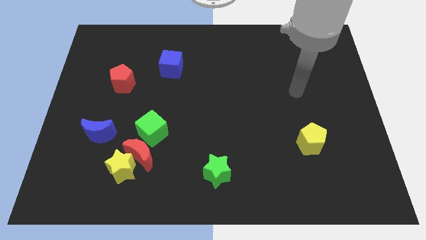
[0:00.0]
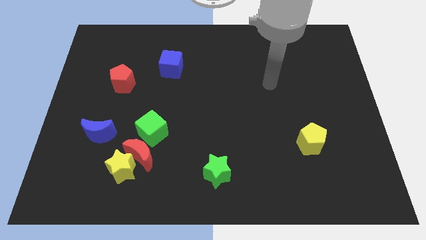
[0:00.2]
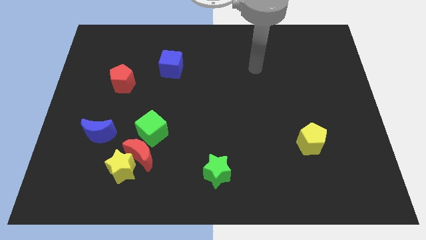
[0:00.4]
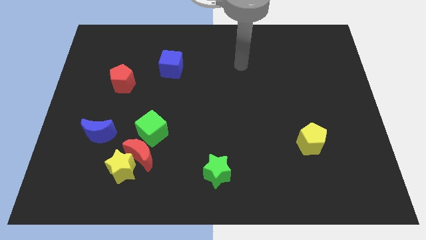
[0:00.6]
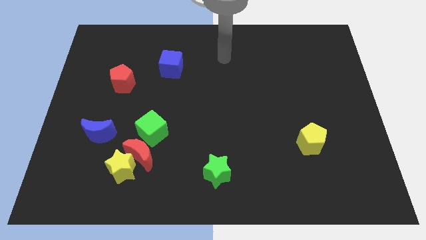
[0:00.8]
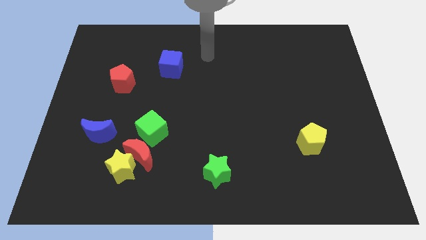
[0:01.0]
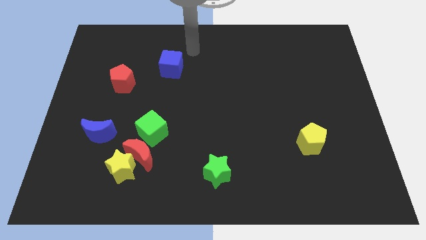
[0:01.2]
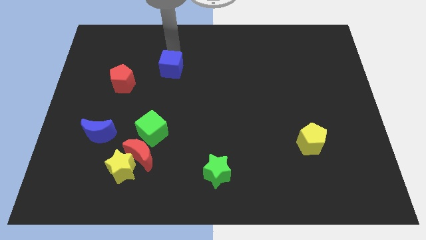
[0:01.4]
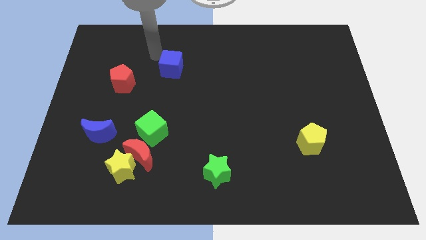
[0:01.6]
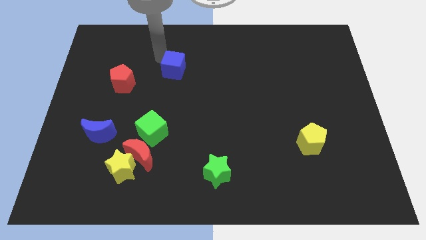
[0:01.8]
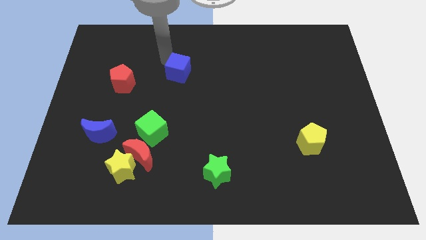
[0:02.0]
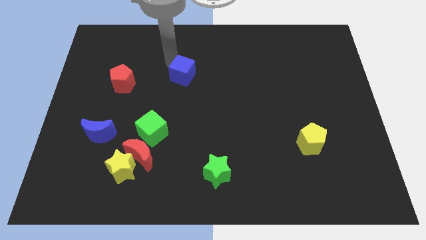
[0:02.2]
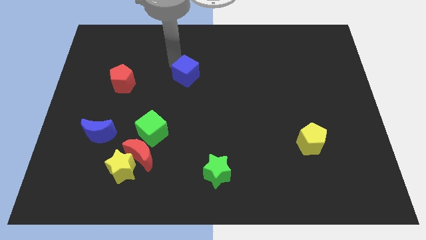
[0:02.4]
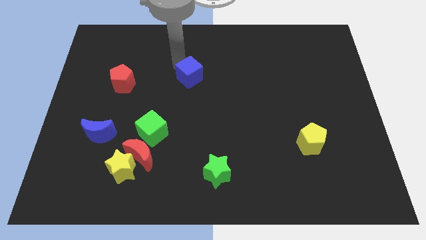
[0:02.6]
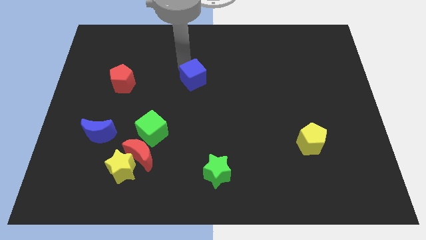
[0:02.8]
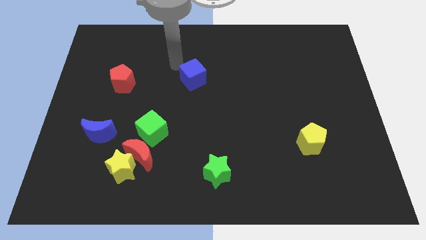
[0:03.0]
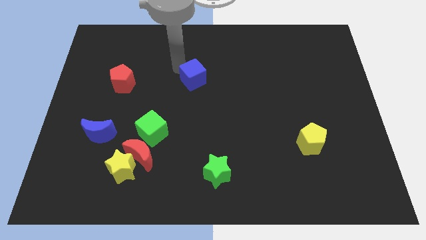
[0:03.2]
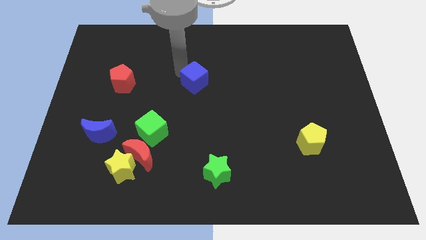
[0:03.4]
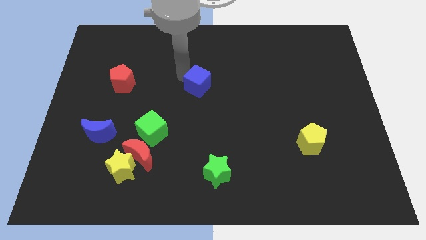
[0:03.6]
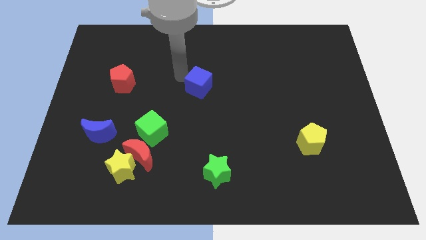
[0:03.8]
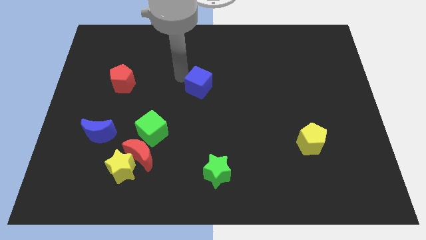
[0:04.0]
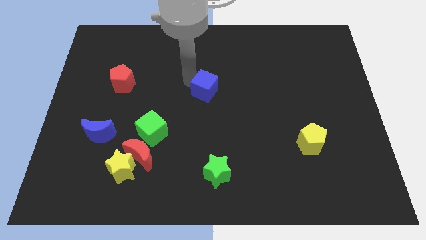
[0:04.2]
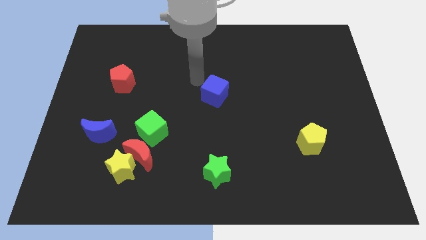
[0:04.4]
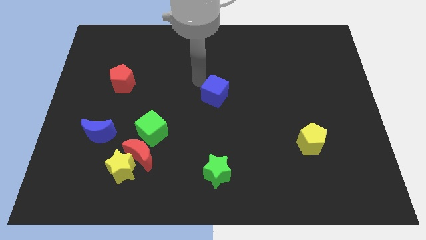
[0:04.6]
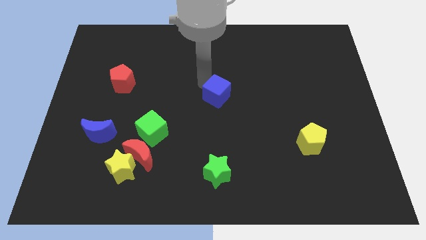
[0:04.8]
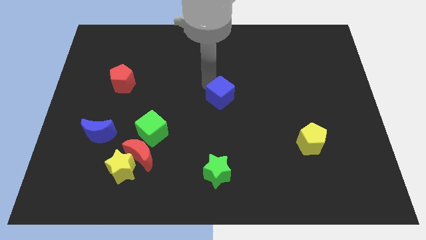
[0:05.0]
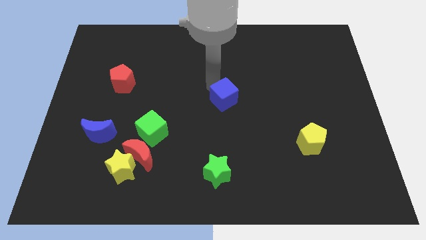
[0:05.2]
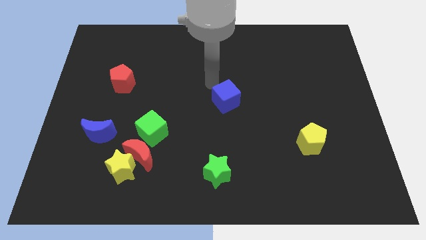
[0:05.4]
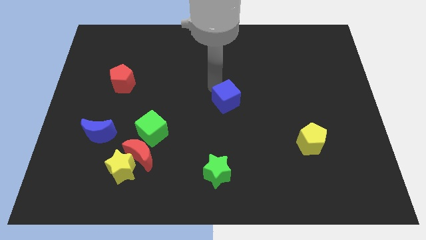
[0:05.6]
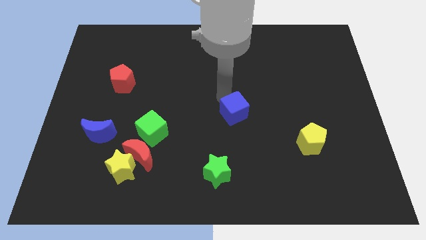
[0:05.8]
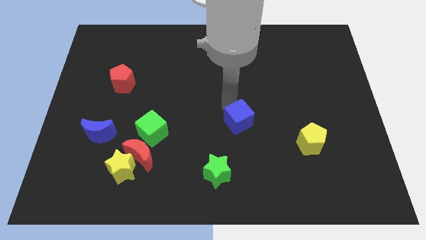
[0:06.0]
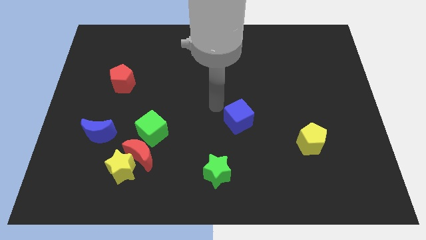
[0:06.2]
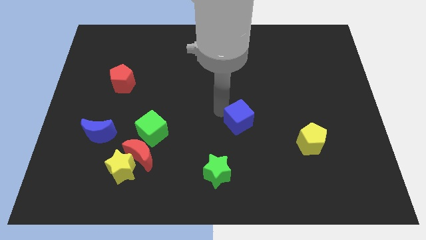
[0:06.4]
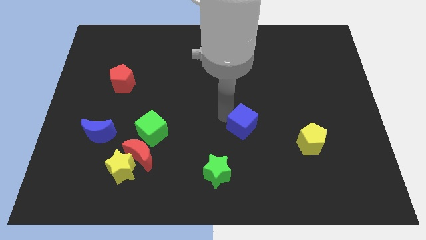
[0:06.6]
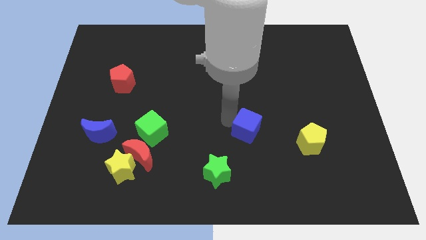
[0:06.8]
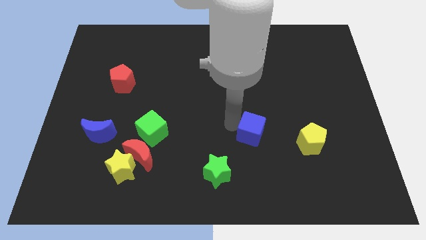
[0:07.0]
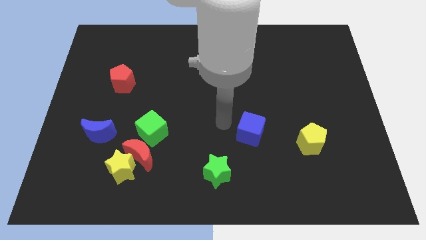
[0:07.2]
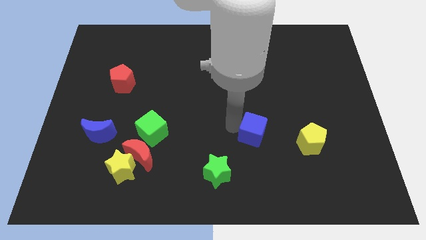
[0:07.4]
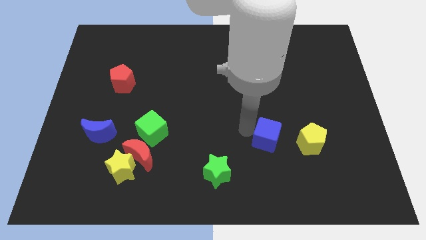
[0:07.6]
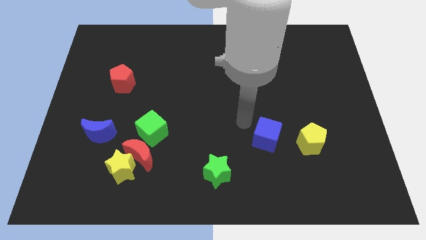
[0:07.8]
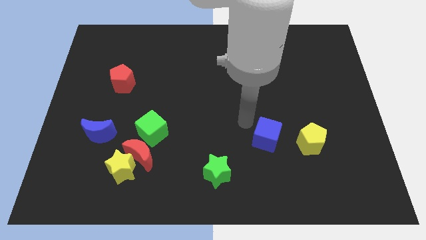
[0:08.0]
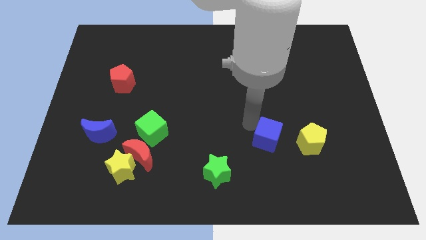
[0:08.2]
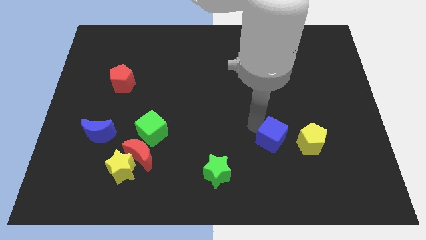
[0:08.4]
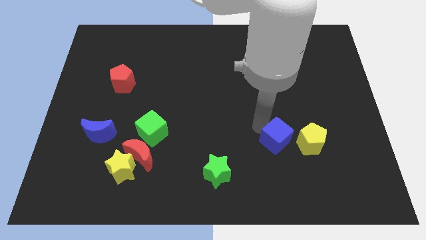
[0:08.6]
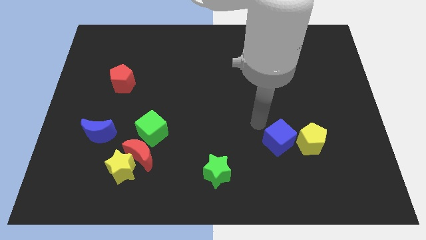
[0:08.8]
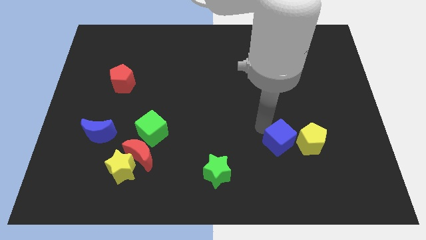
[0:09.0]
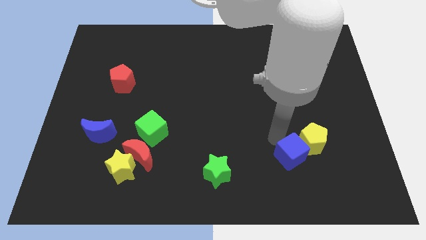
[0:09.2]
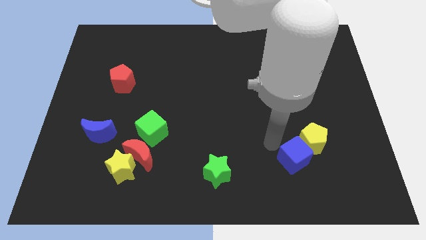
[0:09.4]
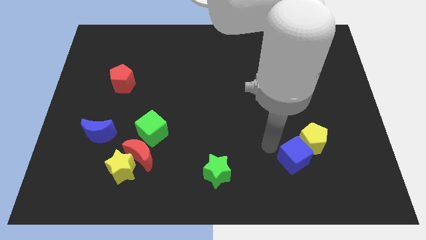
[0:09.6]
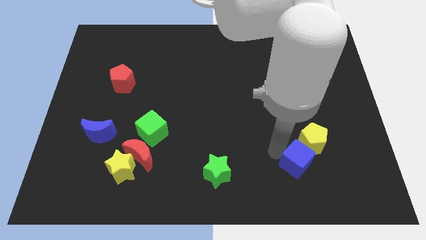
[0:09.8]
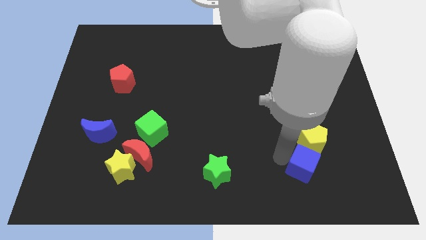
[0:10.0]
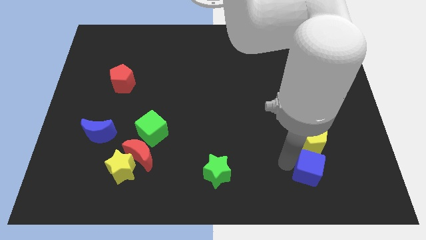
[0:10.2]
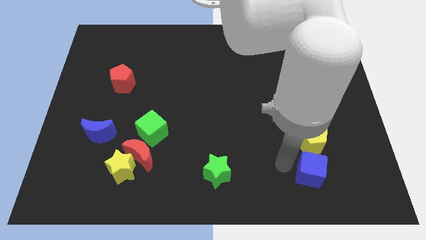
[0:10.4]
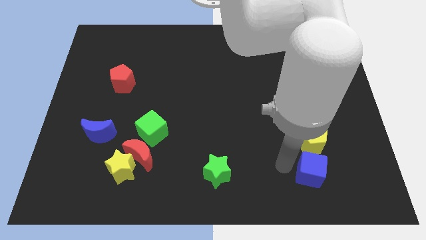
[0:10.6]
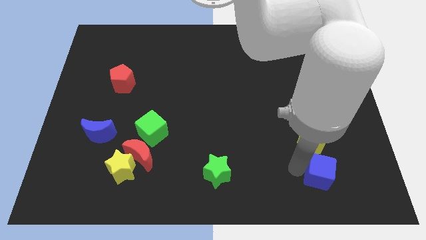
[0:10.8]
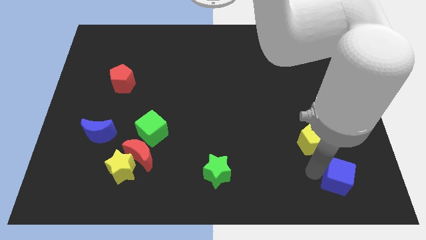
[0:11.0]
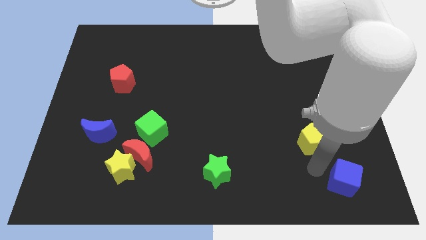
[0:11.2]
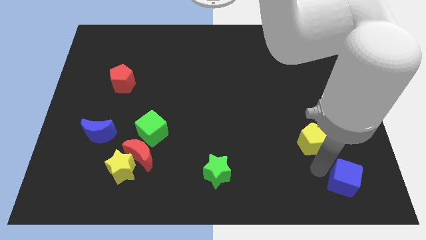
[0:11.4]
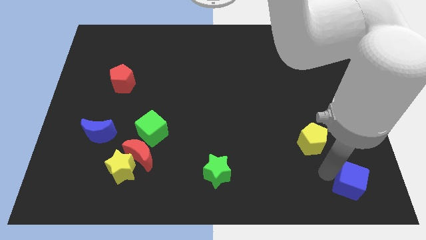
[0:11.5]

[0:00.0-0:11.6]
put the blue cube to the bottom right of the board

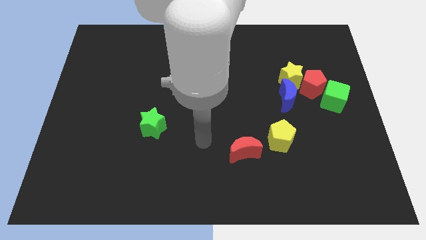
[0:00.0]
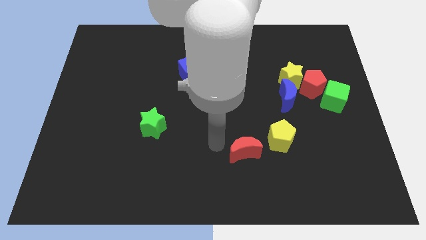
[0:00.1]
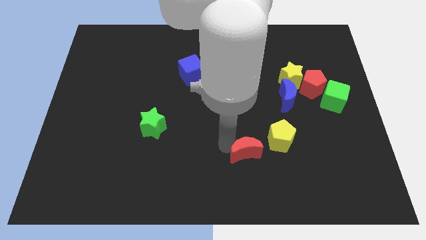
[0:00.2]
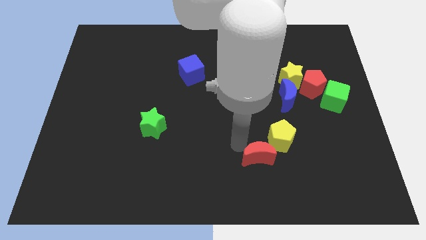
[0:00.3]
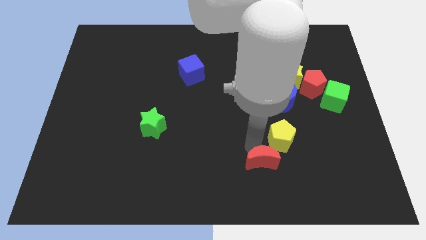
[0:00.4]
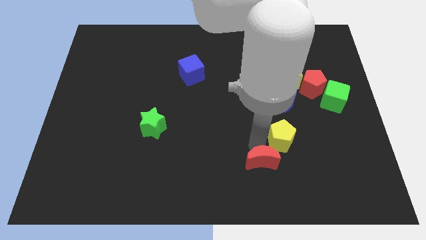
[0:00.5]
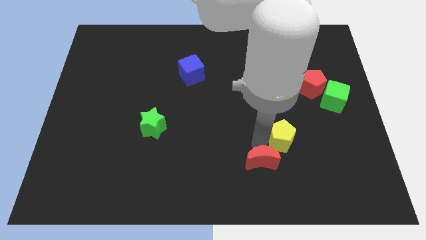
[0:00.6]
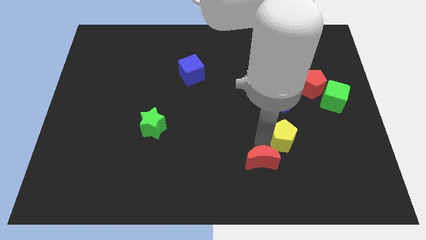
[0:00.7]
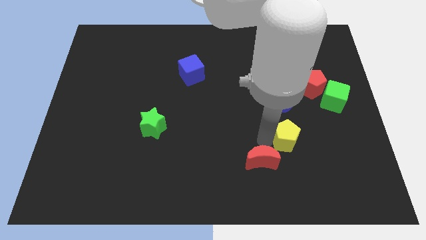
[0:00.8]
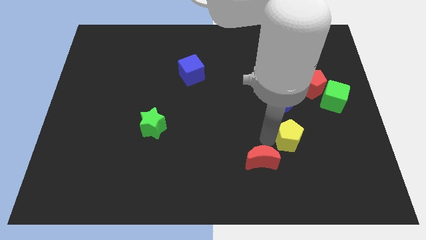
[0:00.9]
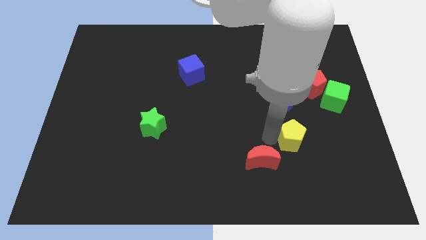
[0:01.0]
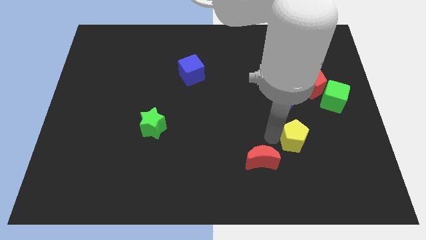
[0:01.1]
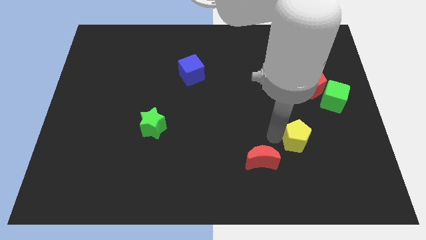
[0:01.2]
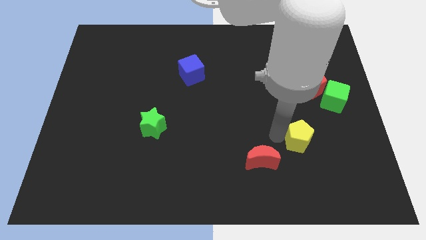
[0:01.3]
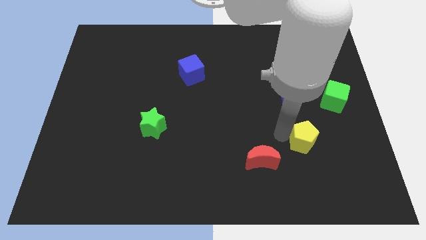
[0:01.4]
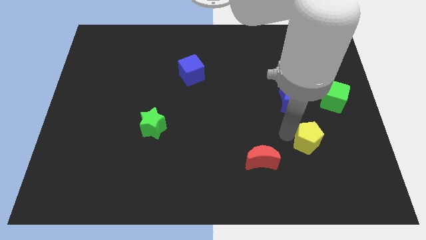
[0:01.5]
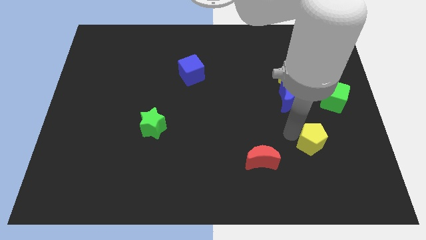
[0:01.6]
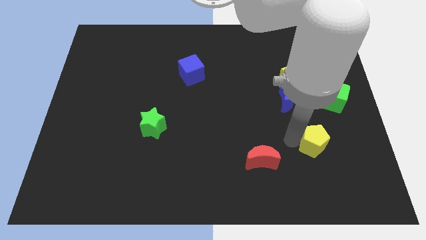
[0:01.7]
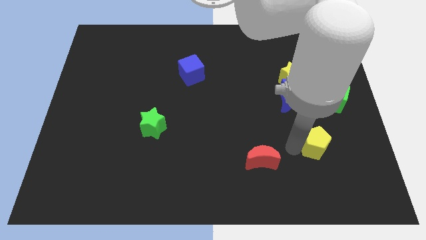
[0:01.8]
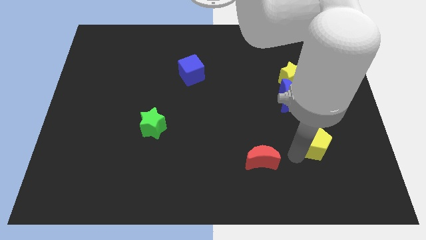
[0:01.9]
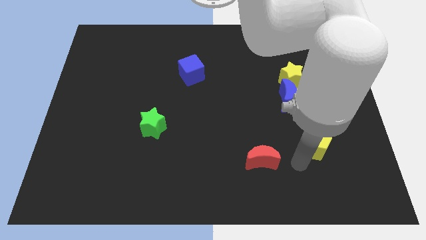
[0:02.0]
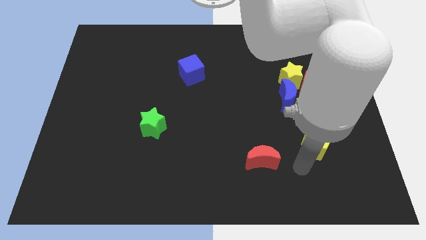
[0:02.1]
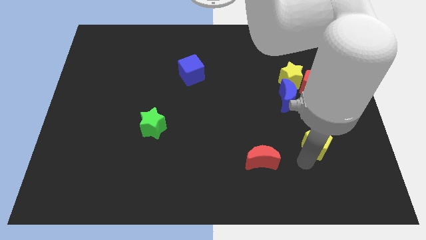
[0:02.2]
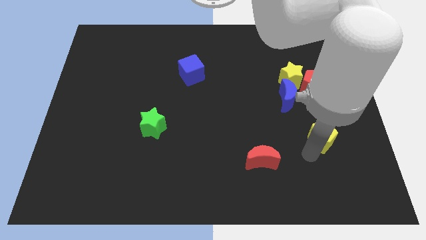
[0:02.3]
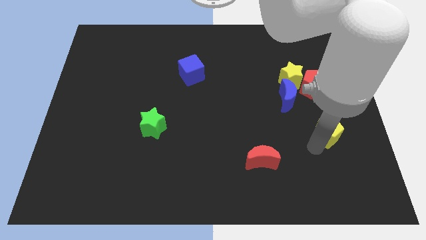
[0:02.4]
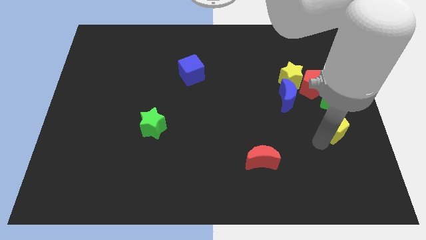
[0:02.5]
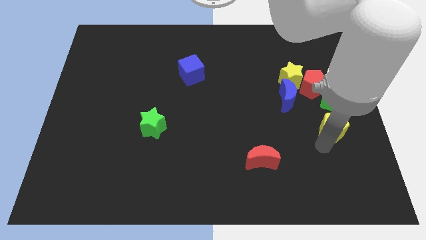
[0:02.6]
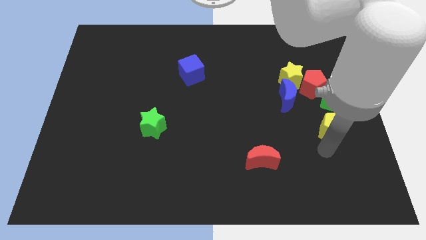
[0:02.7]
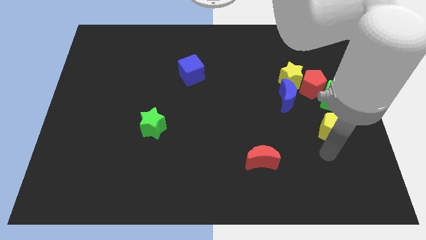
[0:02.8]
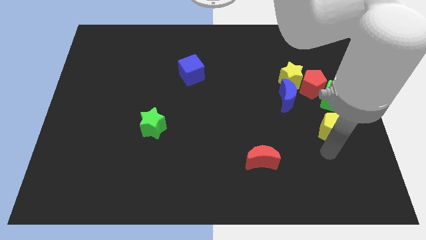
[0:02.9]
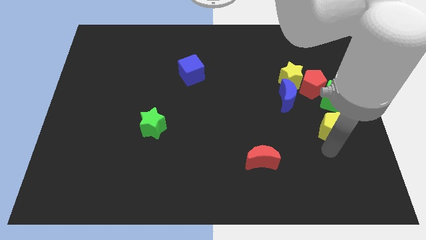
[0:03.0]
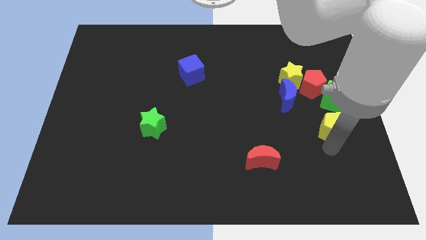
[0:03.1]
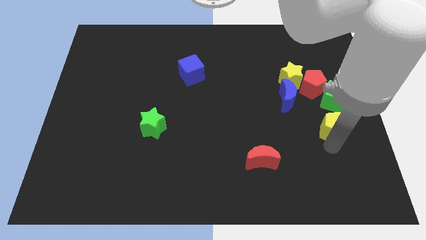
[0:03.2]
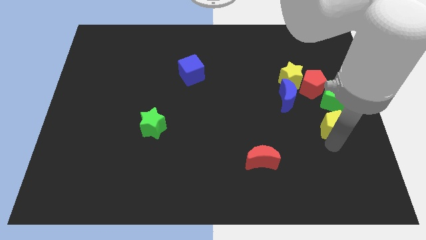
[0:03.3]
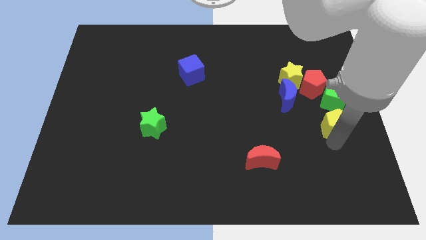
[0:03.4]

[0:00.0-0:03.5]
push the yellow pentagon to the right side
